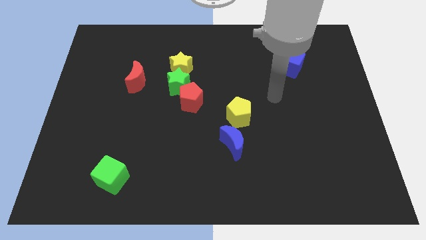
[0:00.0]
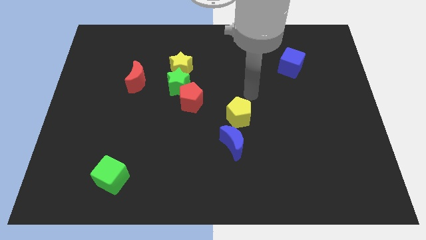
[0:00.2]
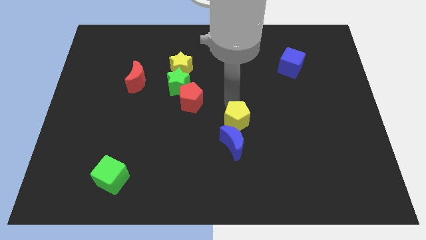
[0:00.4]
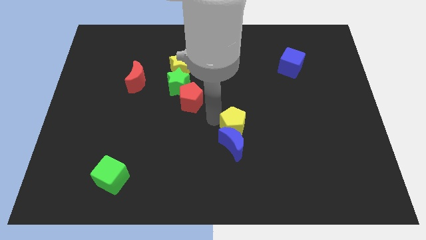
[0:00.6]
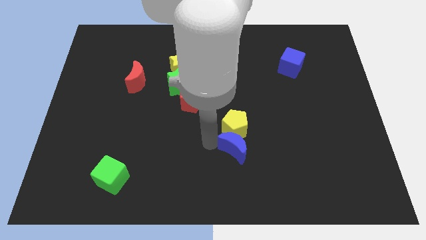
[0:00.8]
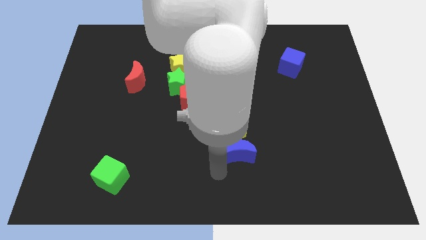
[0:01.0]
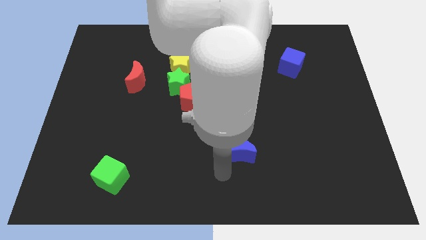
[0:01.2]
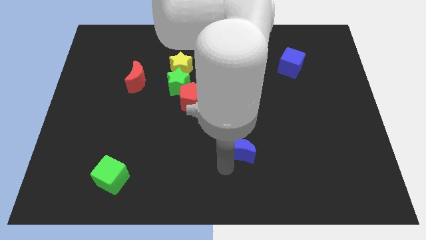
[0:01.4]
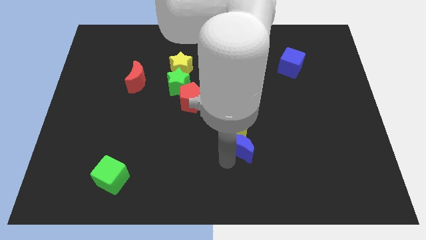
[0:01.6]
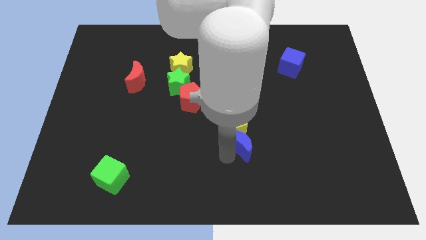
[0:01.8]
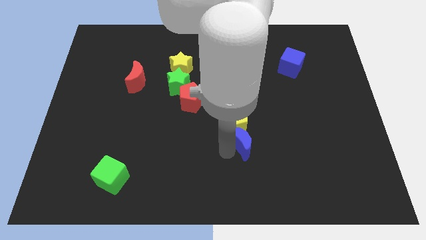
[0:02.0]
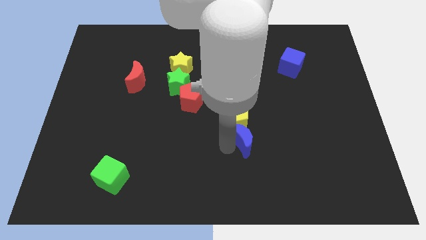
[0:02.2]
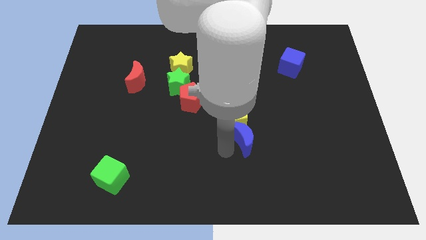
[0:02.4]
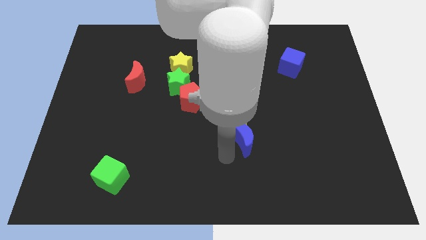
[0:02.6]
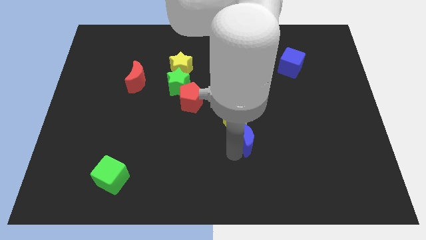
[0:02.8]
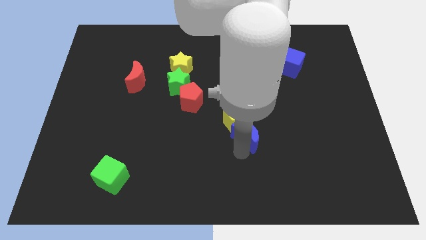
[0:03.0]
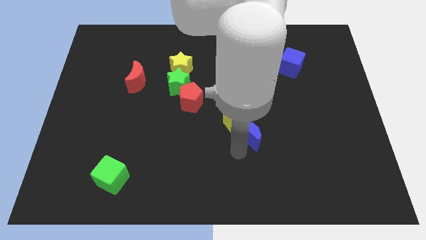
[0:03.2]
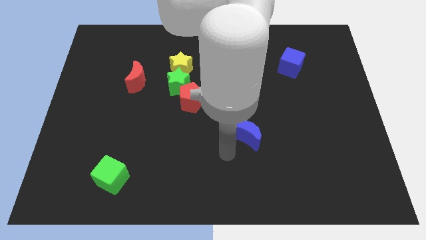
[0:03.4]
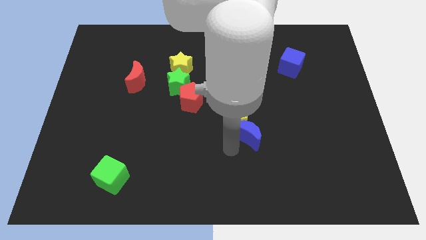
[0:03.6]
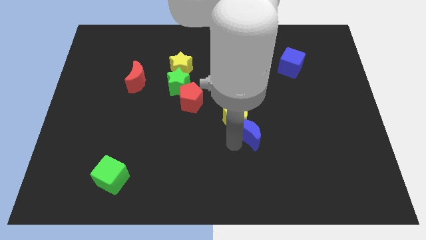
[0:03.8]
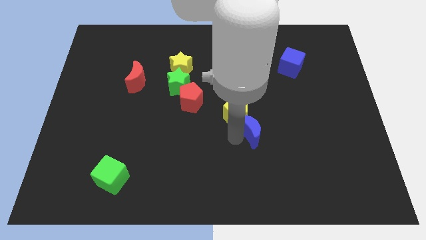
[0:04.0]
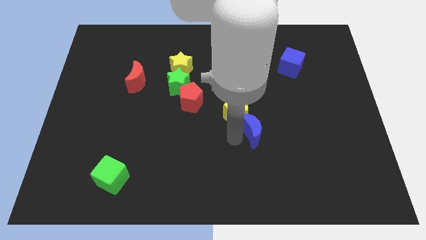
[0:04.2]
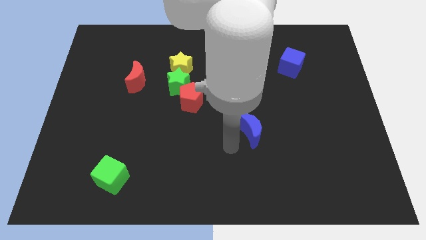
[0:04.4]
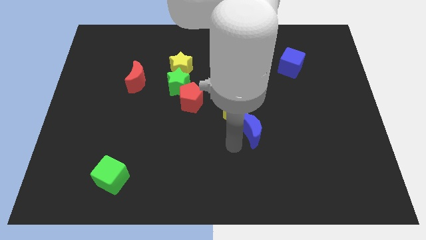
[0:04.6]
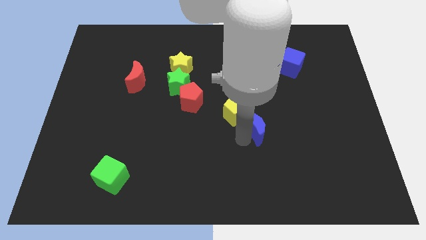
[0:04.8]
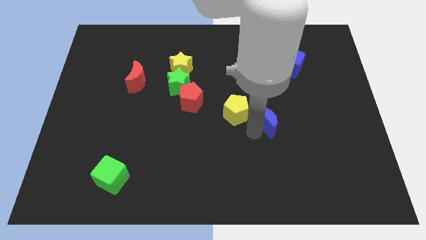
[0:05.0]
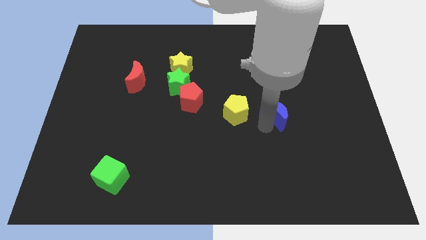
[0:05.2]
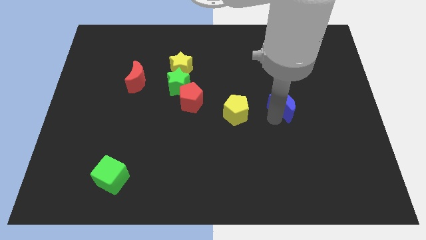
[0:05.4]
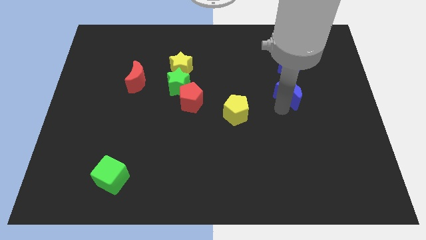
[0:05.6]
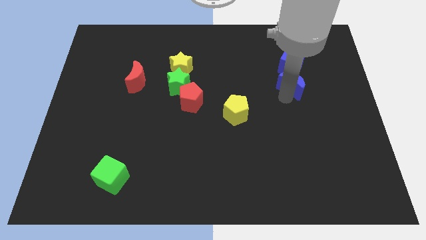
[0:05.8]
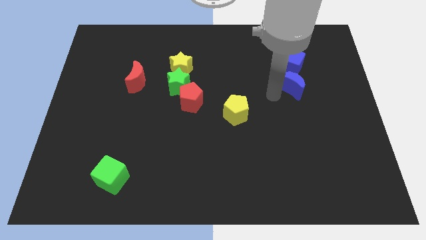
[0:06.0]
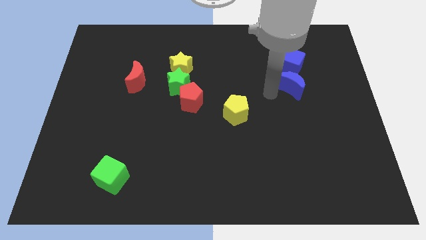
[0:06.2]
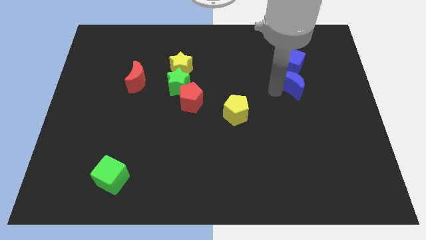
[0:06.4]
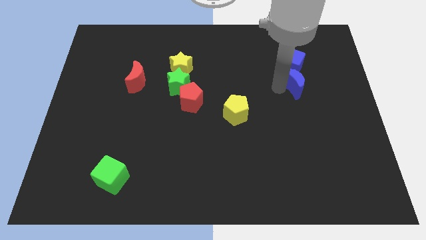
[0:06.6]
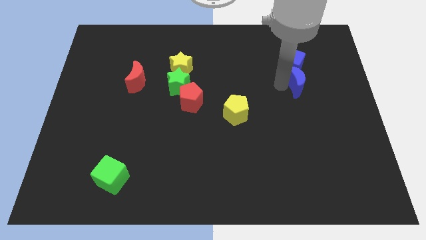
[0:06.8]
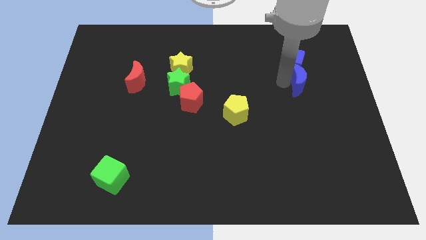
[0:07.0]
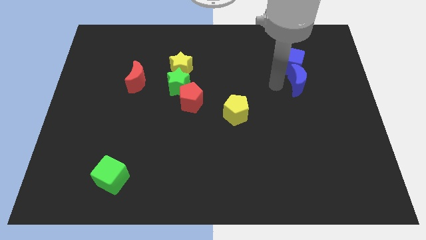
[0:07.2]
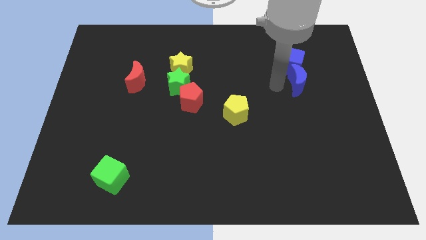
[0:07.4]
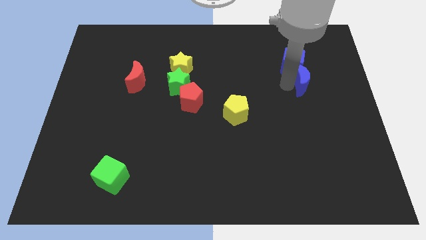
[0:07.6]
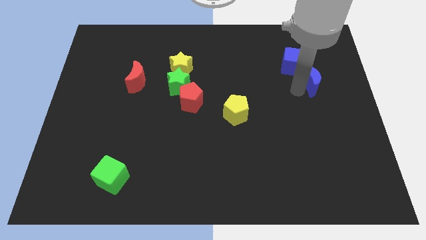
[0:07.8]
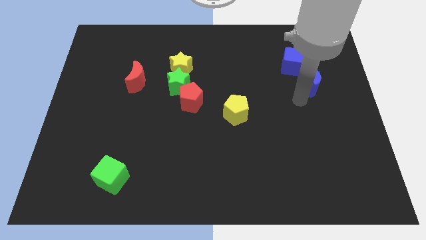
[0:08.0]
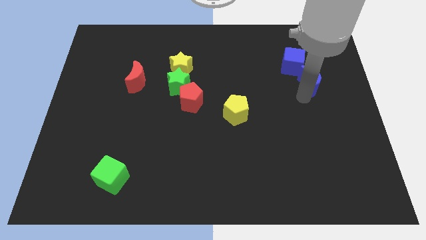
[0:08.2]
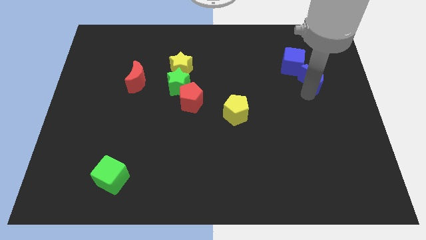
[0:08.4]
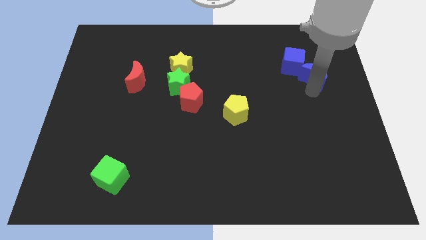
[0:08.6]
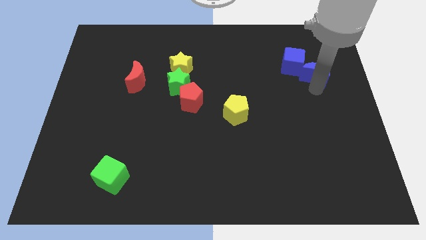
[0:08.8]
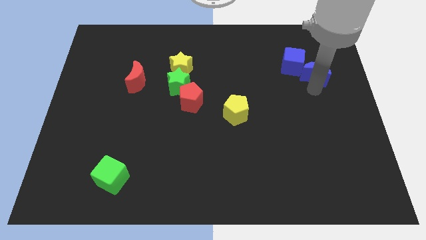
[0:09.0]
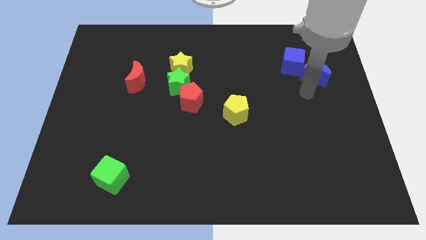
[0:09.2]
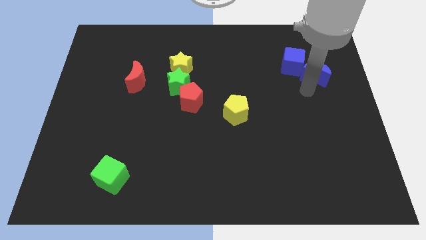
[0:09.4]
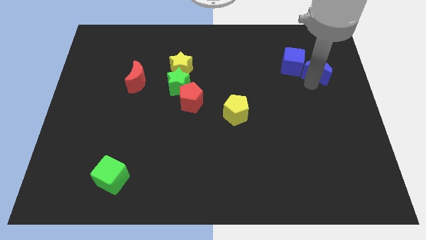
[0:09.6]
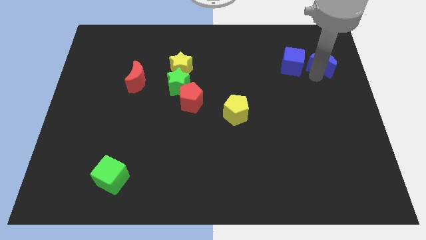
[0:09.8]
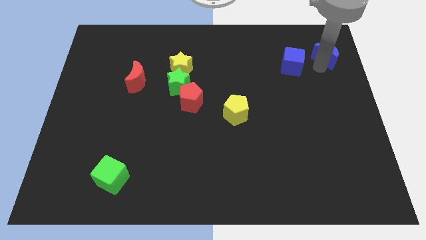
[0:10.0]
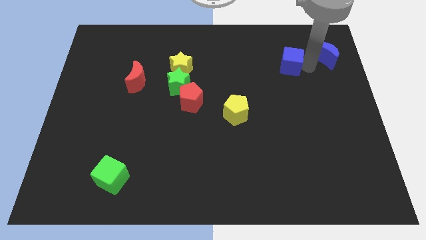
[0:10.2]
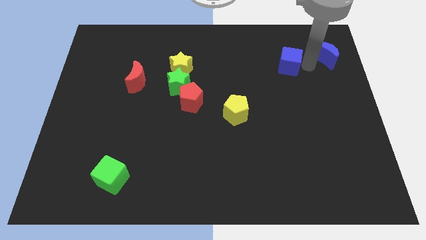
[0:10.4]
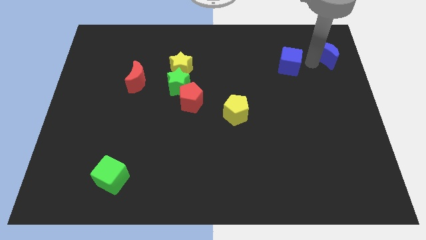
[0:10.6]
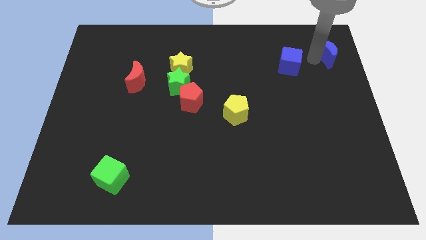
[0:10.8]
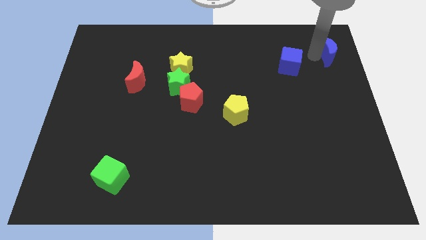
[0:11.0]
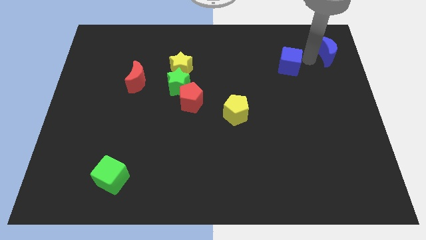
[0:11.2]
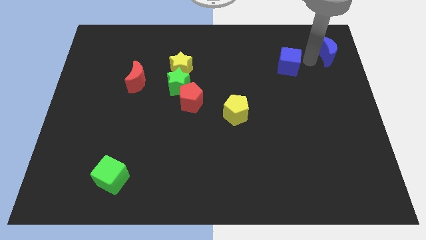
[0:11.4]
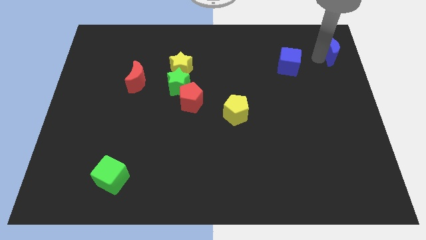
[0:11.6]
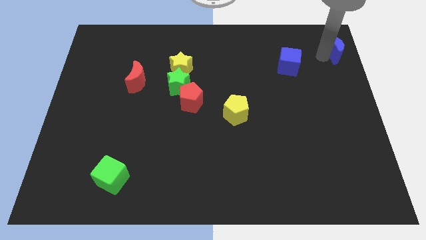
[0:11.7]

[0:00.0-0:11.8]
push the blue moon to the top right of the board
